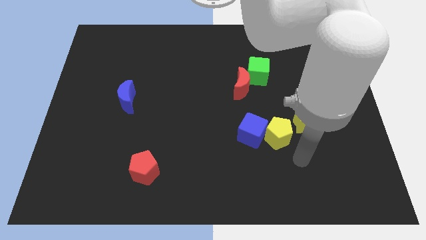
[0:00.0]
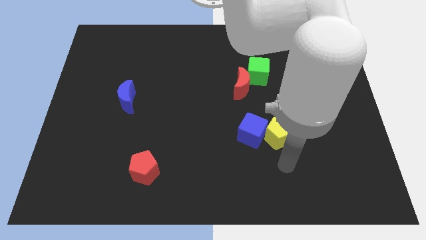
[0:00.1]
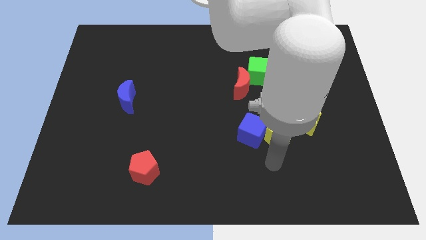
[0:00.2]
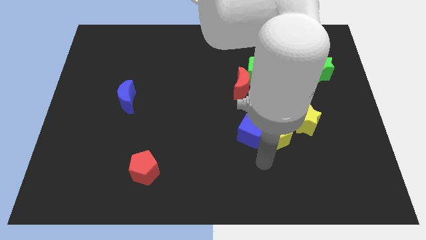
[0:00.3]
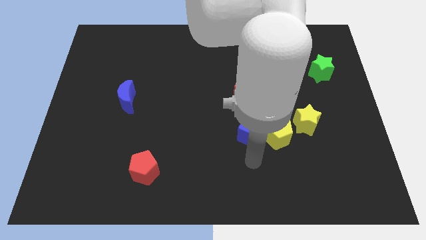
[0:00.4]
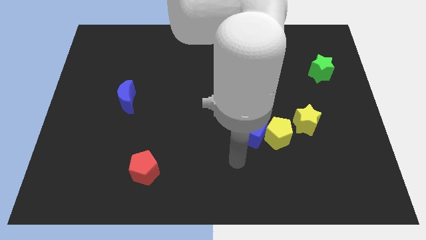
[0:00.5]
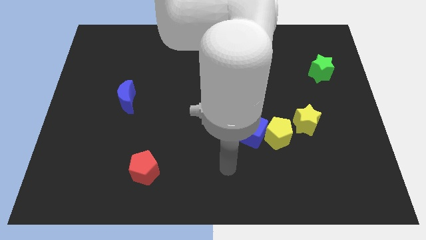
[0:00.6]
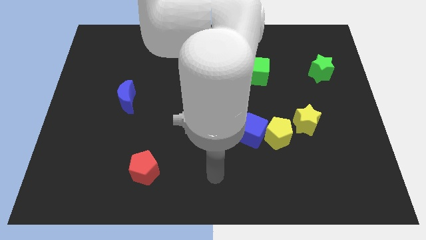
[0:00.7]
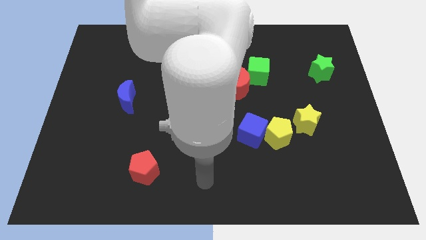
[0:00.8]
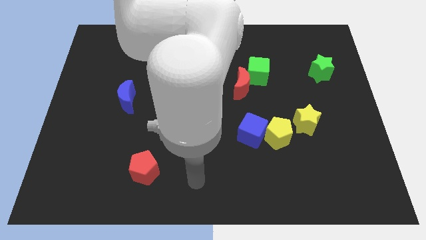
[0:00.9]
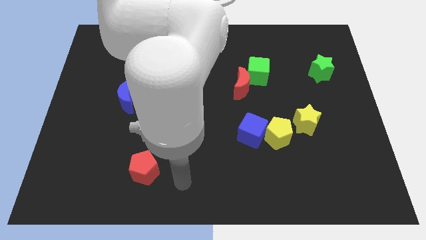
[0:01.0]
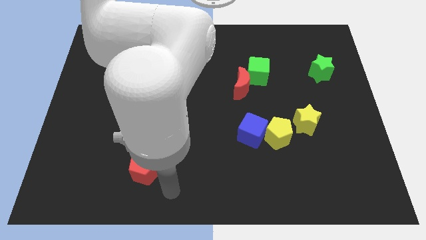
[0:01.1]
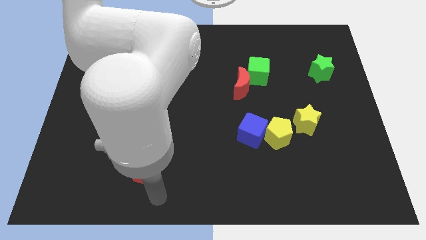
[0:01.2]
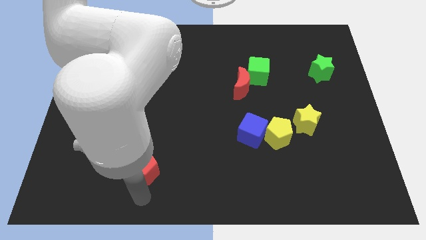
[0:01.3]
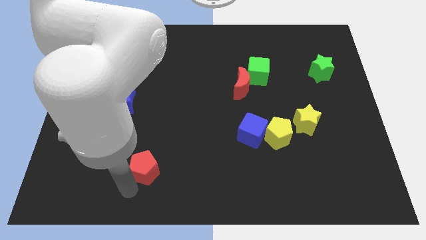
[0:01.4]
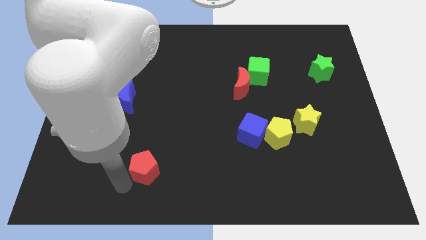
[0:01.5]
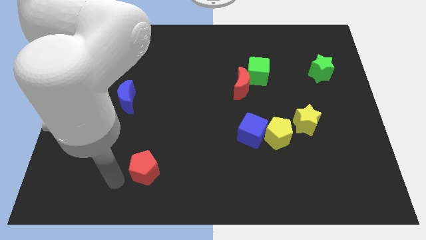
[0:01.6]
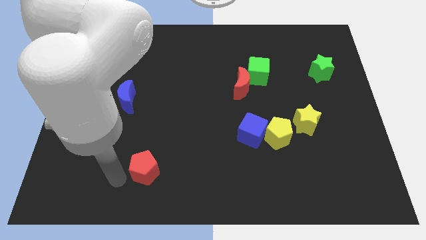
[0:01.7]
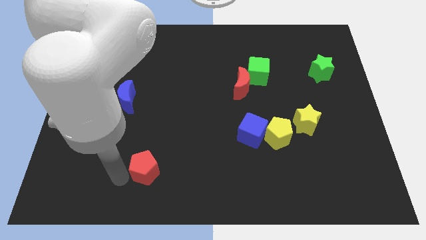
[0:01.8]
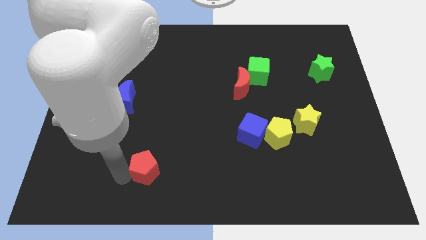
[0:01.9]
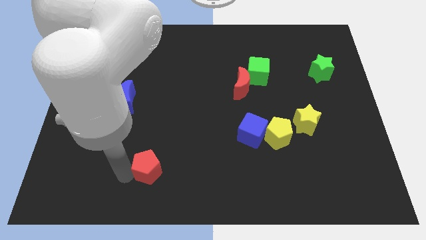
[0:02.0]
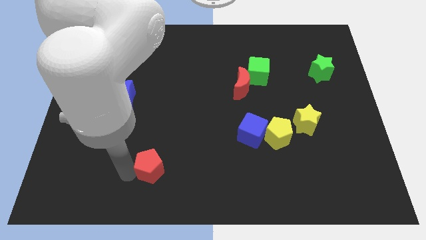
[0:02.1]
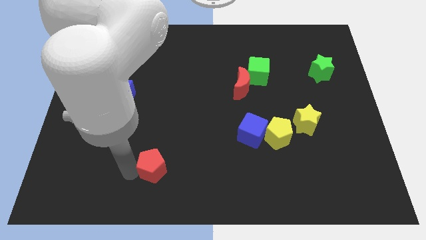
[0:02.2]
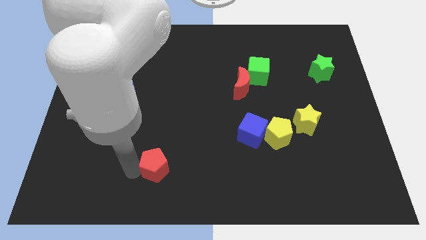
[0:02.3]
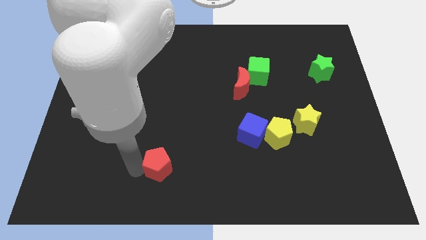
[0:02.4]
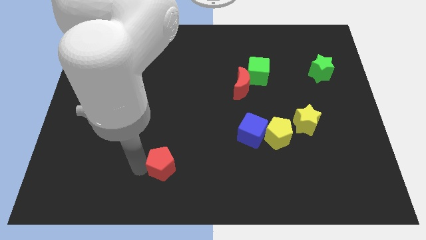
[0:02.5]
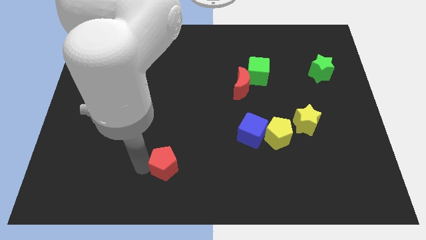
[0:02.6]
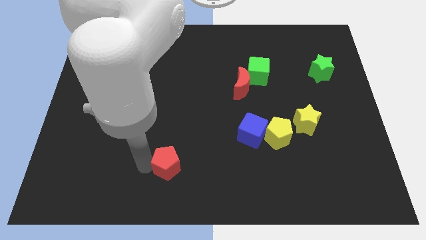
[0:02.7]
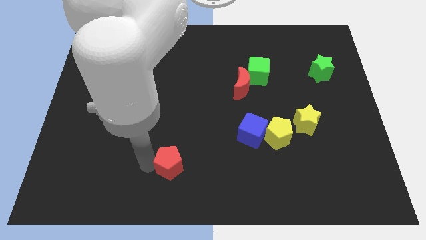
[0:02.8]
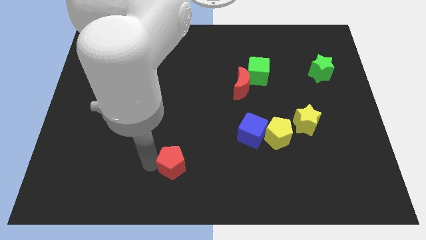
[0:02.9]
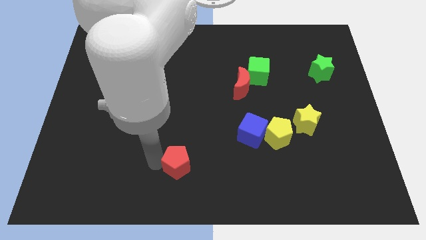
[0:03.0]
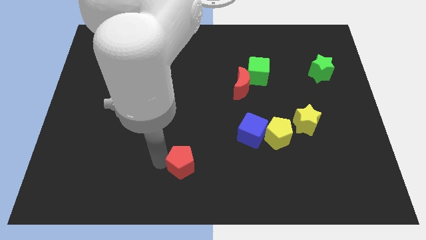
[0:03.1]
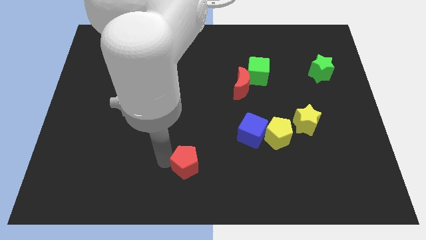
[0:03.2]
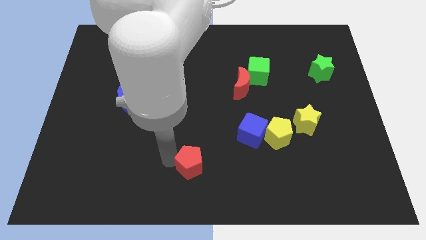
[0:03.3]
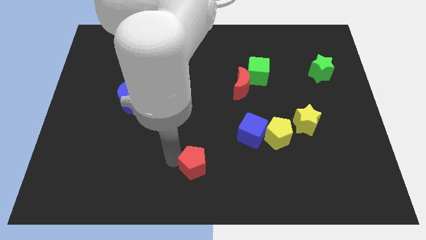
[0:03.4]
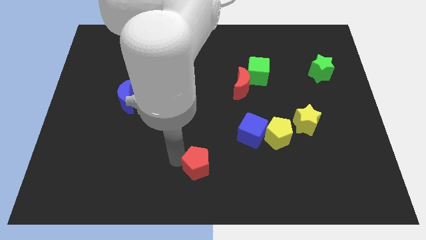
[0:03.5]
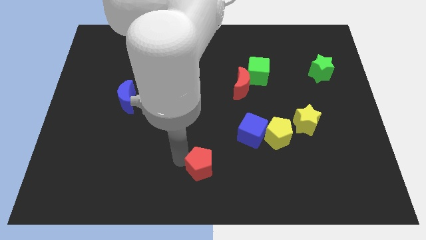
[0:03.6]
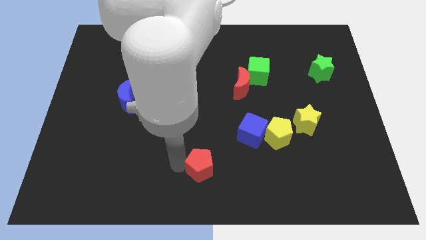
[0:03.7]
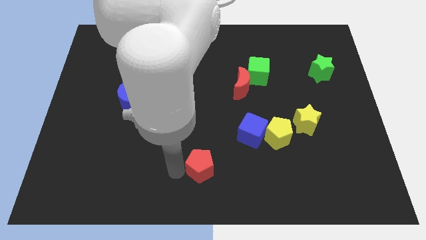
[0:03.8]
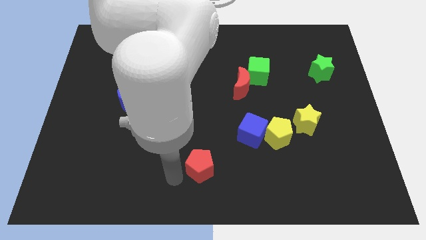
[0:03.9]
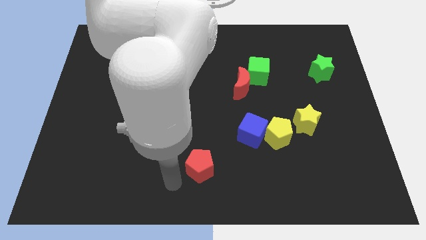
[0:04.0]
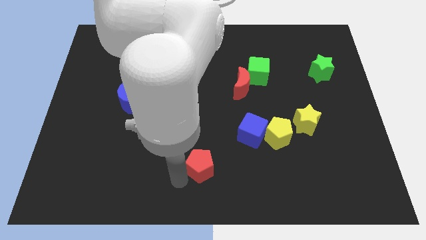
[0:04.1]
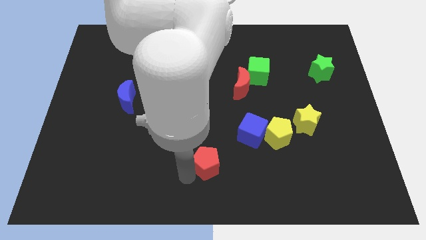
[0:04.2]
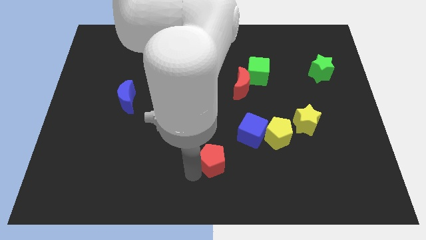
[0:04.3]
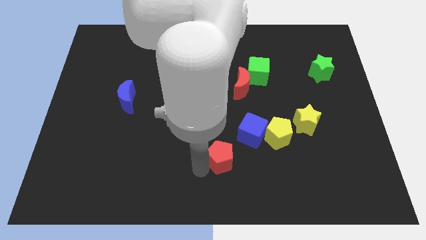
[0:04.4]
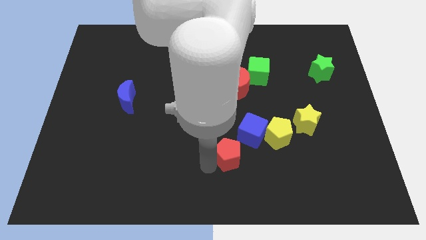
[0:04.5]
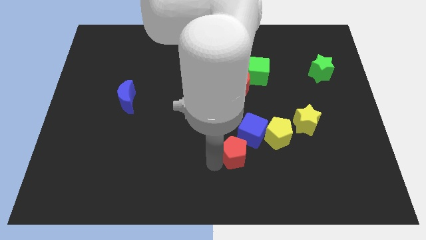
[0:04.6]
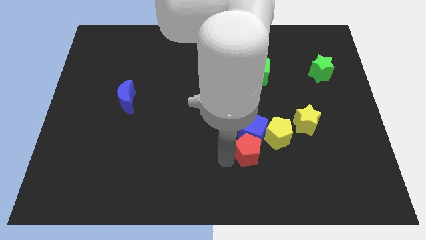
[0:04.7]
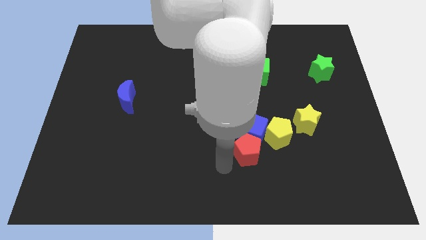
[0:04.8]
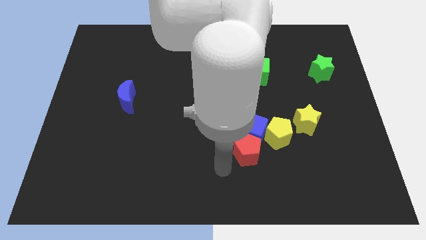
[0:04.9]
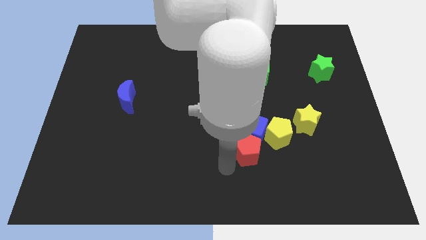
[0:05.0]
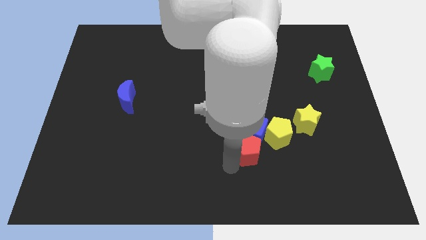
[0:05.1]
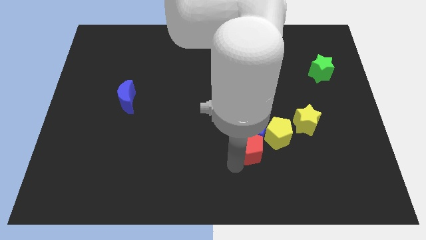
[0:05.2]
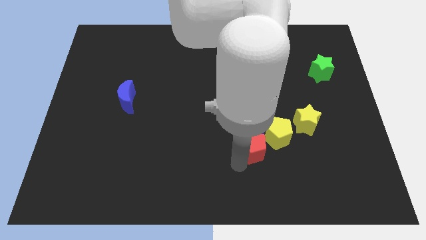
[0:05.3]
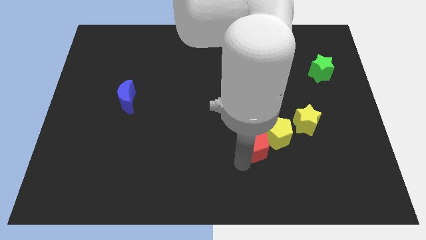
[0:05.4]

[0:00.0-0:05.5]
put the red pentagon towards the yellow pentagon

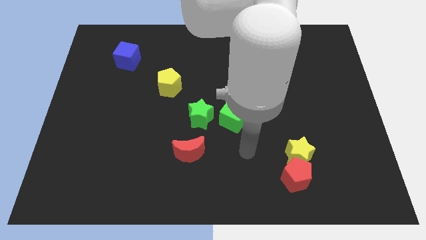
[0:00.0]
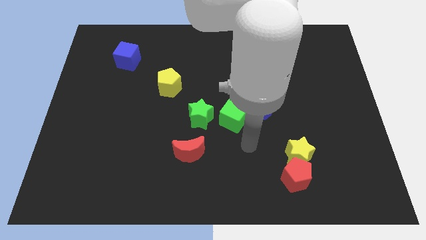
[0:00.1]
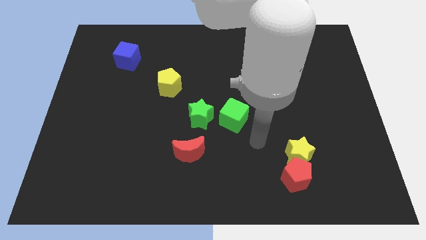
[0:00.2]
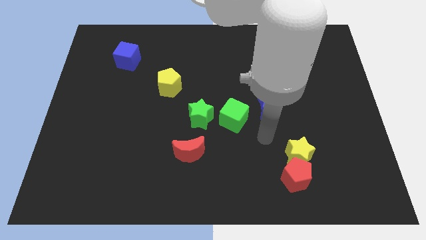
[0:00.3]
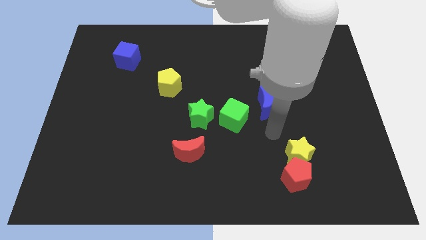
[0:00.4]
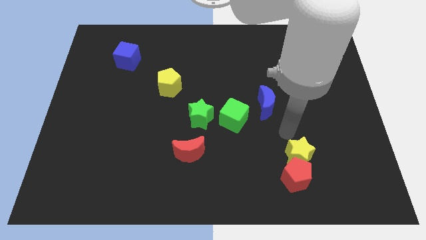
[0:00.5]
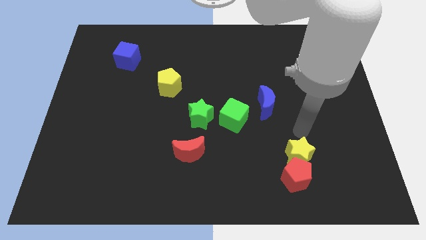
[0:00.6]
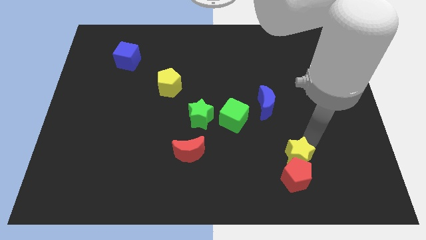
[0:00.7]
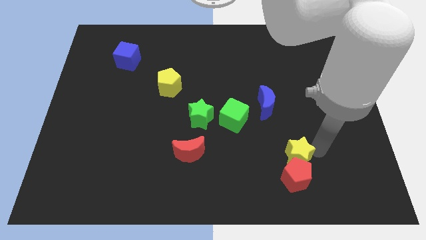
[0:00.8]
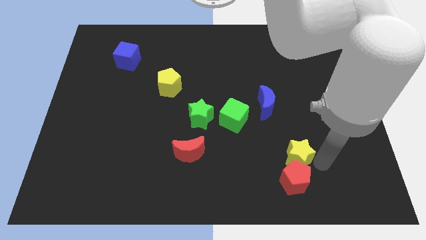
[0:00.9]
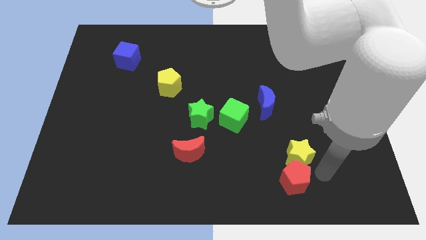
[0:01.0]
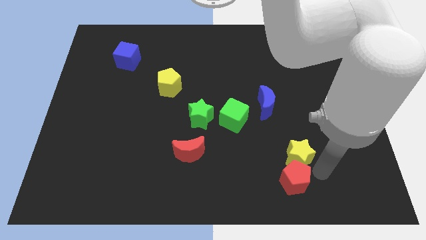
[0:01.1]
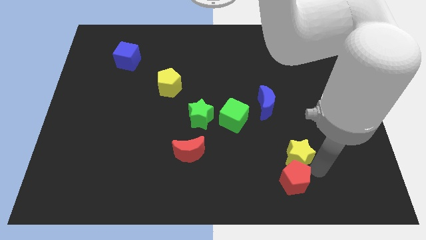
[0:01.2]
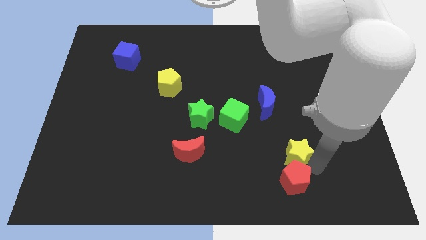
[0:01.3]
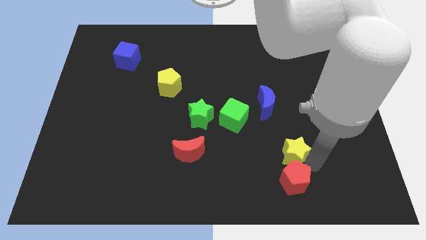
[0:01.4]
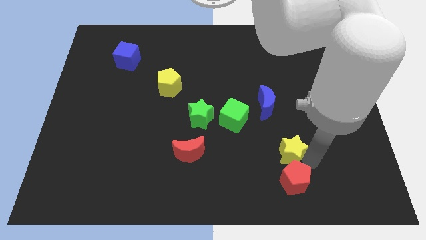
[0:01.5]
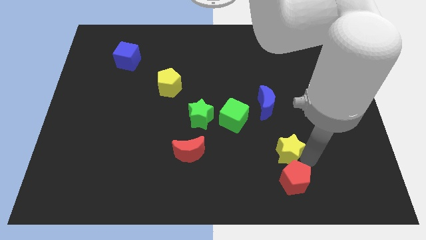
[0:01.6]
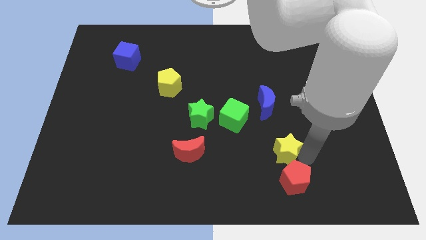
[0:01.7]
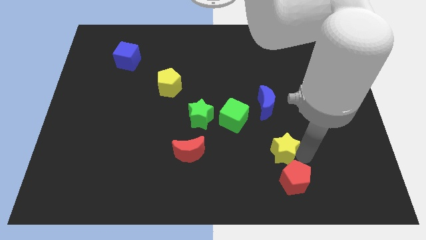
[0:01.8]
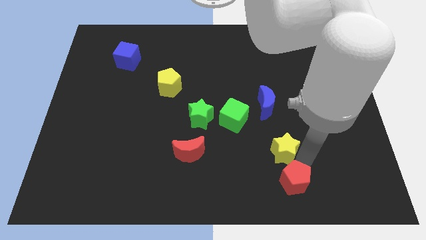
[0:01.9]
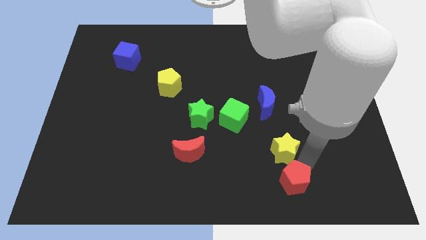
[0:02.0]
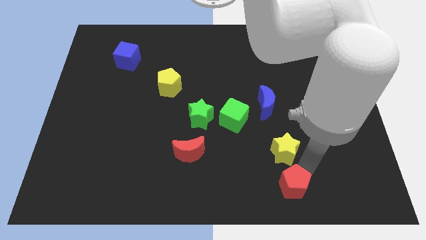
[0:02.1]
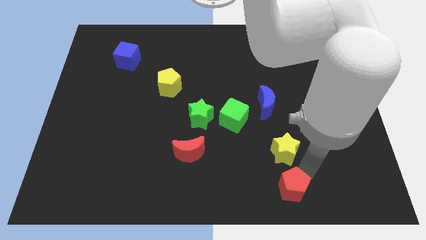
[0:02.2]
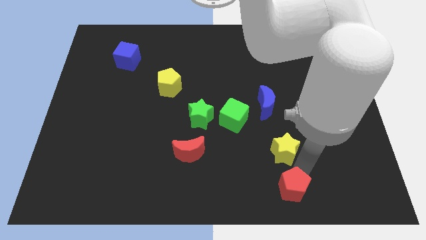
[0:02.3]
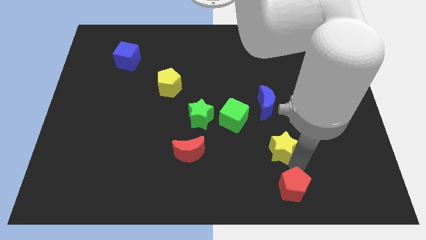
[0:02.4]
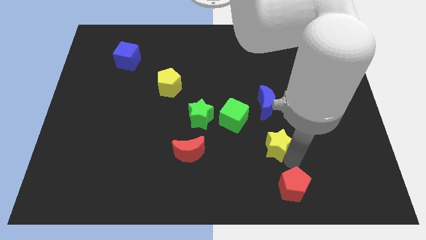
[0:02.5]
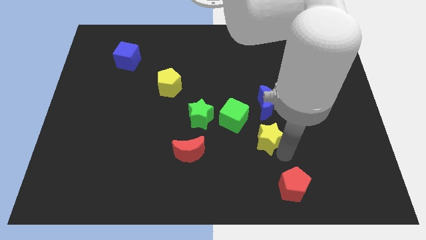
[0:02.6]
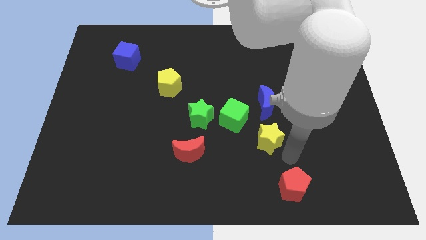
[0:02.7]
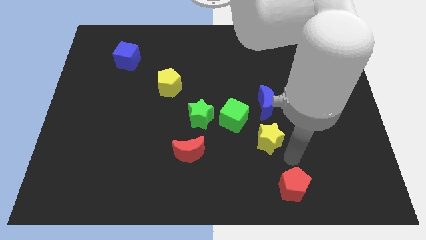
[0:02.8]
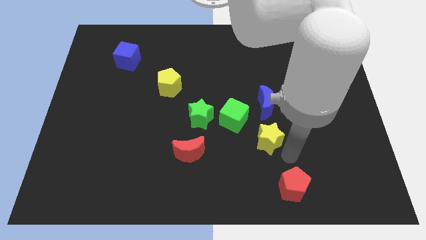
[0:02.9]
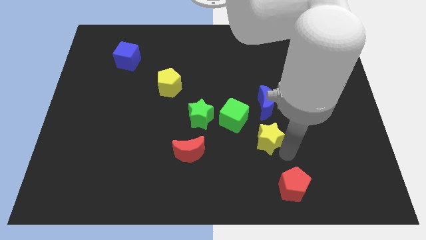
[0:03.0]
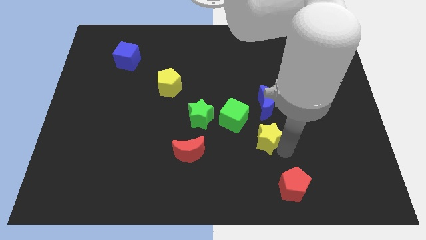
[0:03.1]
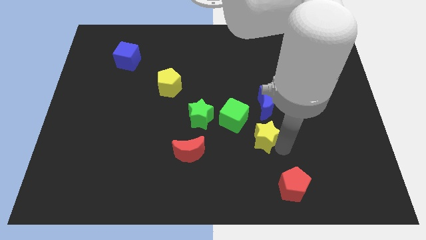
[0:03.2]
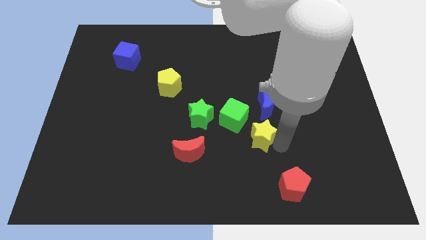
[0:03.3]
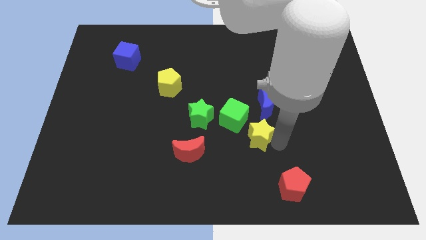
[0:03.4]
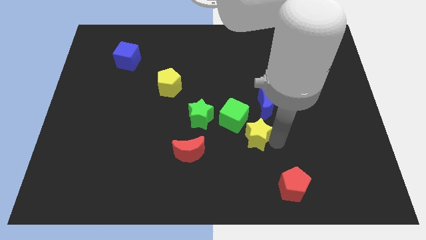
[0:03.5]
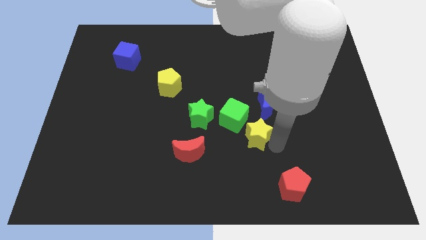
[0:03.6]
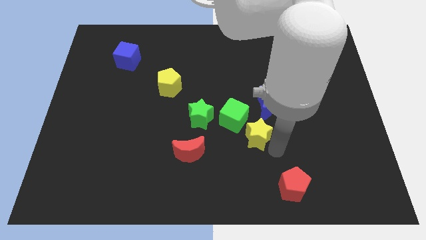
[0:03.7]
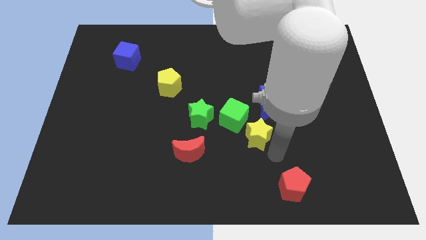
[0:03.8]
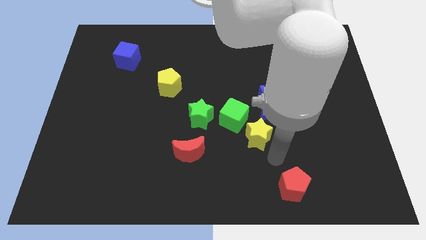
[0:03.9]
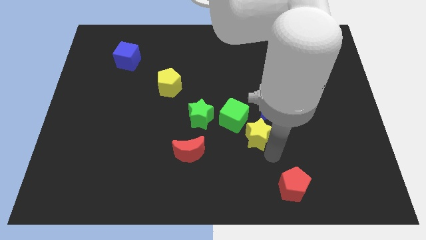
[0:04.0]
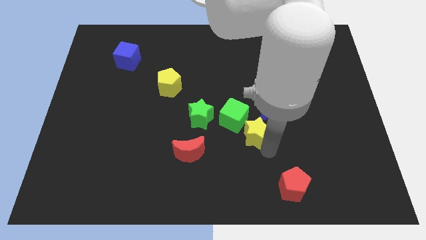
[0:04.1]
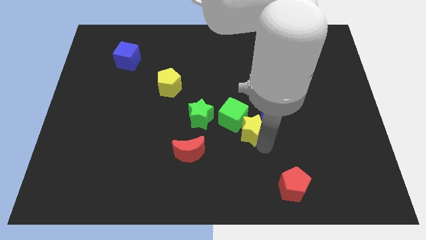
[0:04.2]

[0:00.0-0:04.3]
move the yellow star towards the green cube
